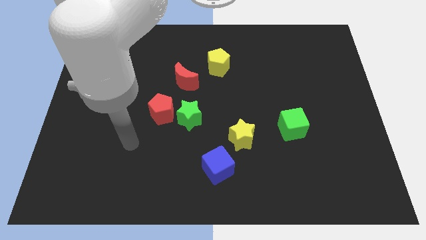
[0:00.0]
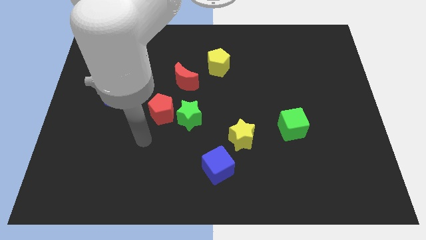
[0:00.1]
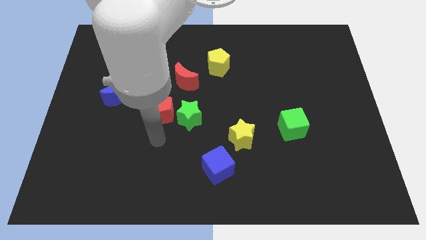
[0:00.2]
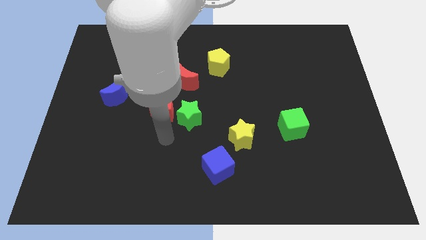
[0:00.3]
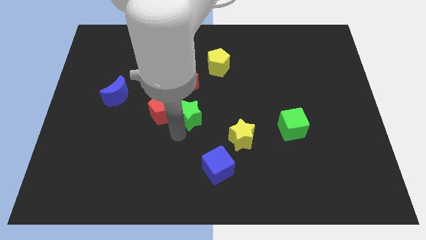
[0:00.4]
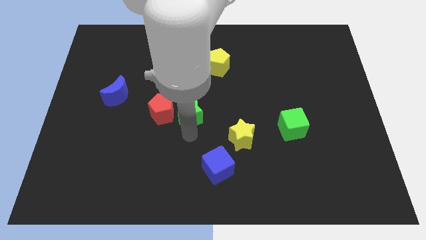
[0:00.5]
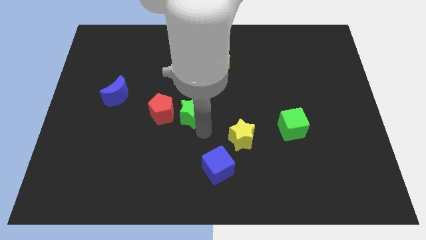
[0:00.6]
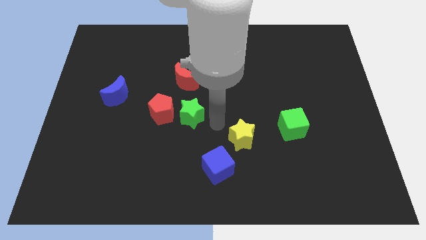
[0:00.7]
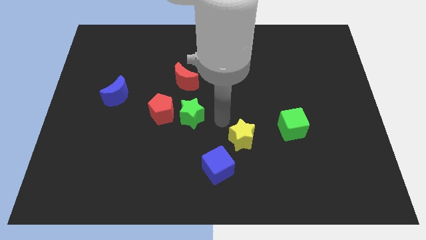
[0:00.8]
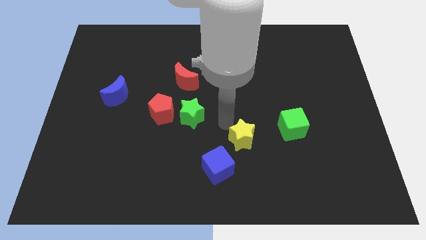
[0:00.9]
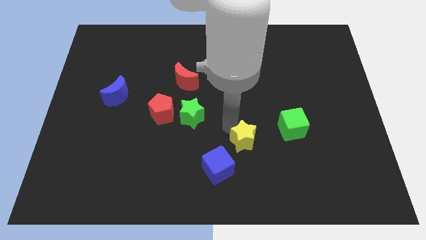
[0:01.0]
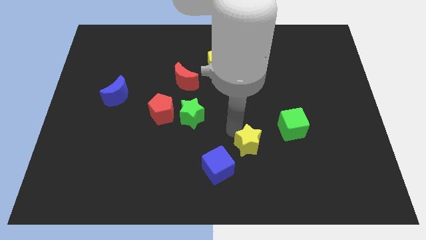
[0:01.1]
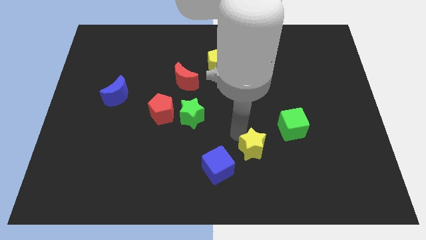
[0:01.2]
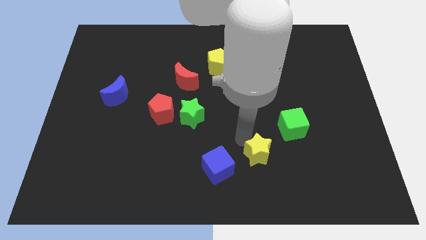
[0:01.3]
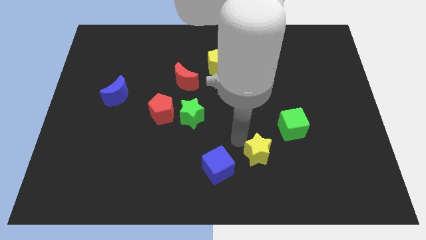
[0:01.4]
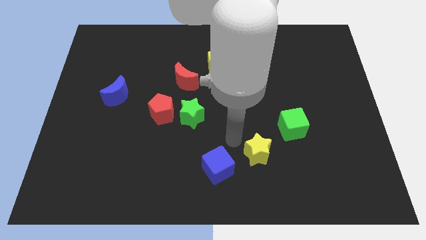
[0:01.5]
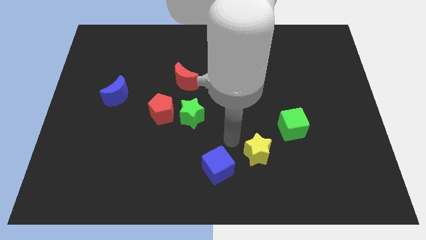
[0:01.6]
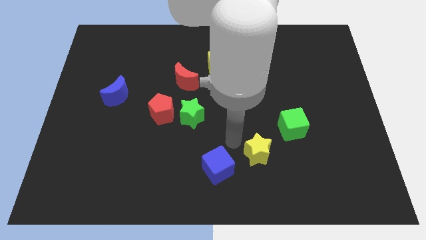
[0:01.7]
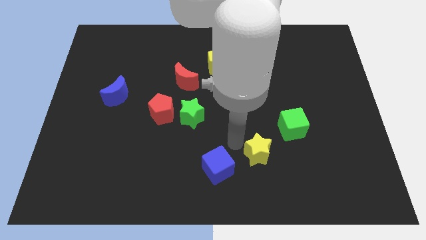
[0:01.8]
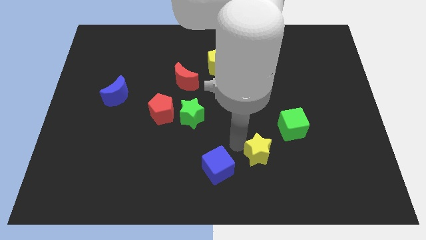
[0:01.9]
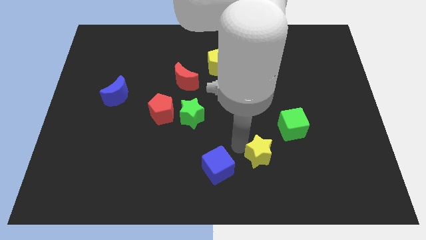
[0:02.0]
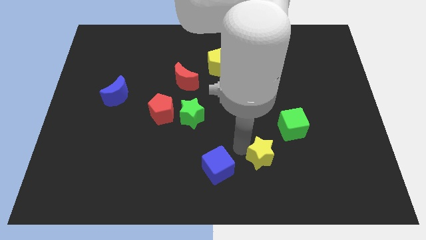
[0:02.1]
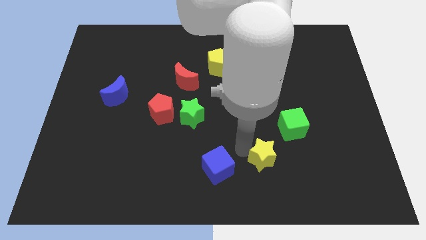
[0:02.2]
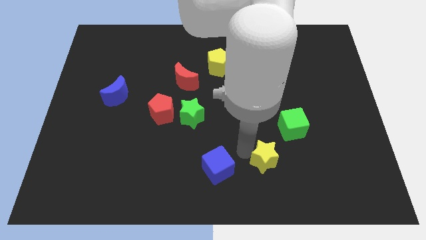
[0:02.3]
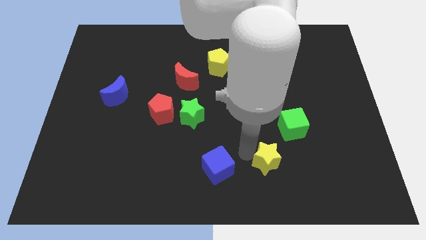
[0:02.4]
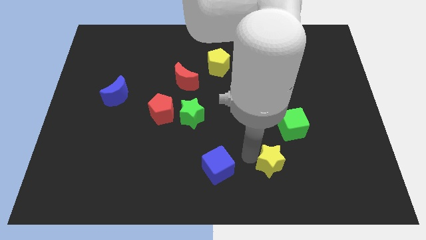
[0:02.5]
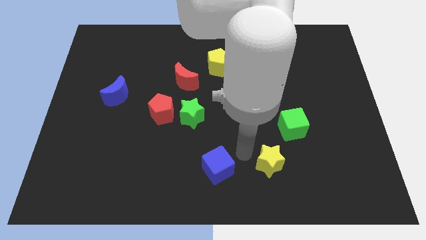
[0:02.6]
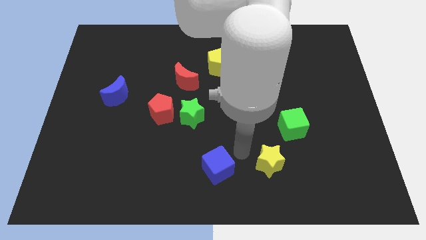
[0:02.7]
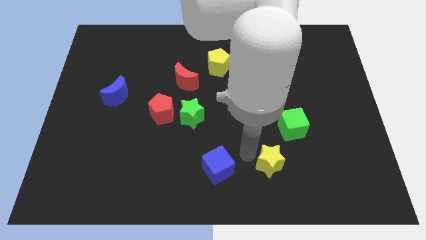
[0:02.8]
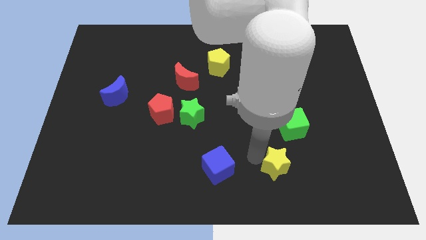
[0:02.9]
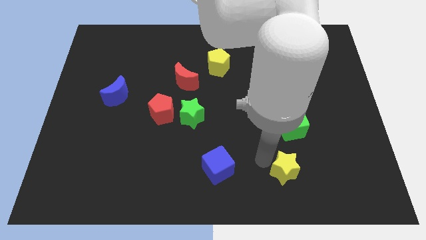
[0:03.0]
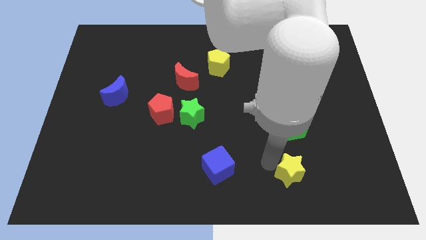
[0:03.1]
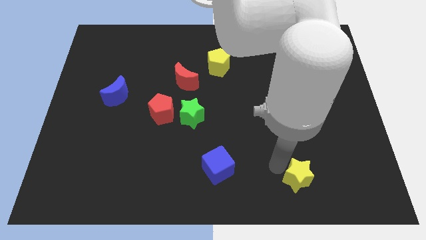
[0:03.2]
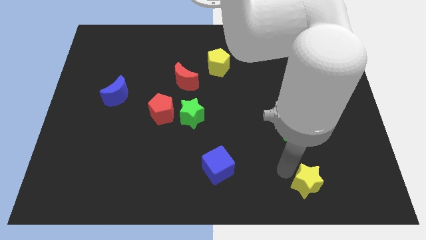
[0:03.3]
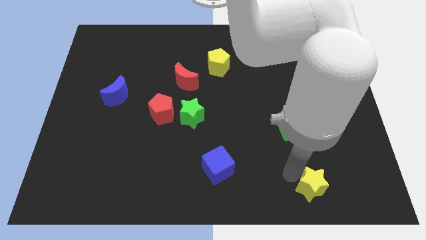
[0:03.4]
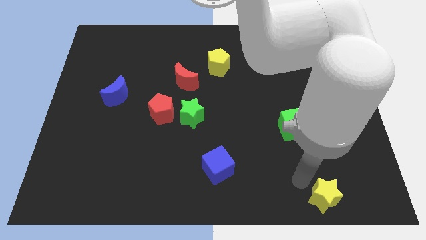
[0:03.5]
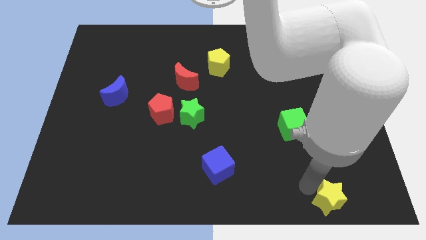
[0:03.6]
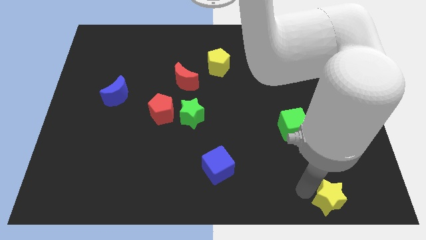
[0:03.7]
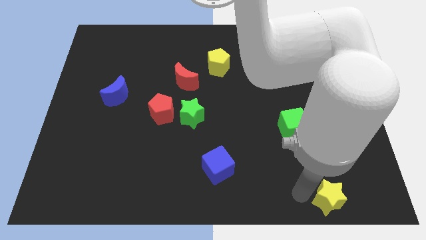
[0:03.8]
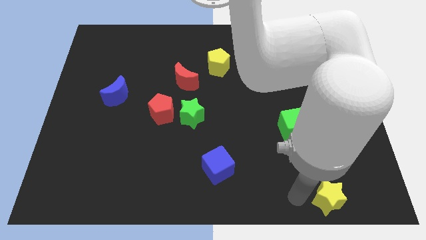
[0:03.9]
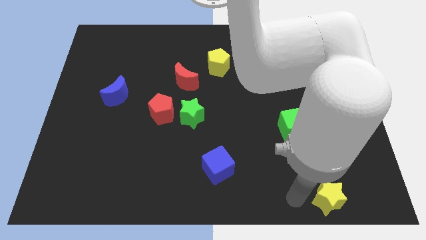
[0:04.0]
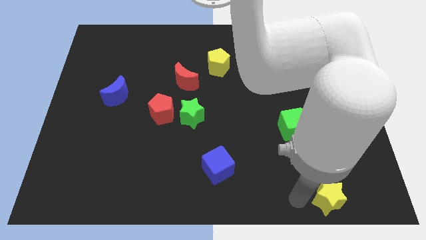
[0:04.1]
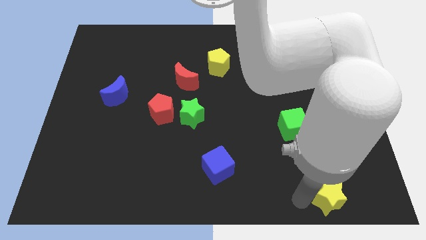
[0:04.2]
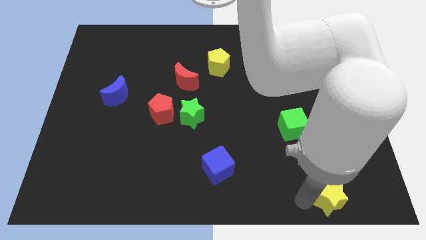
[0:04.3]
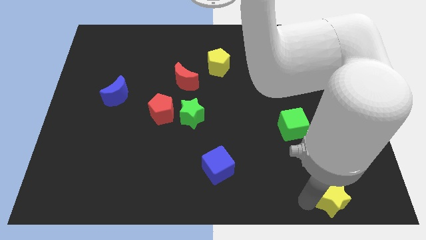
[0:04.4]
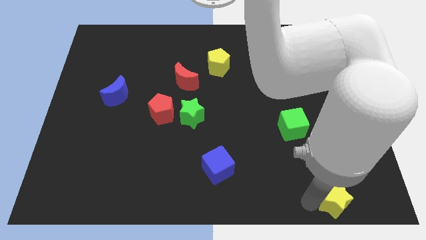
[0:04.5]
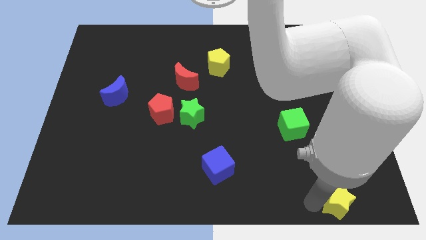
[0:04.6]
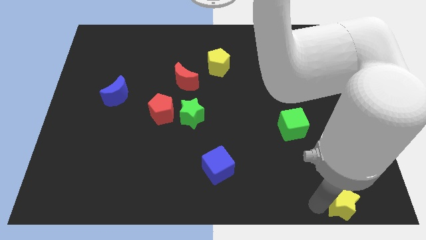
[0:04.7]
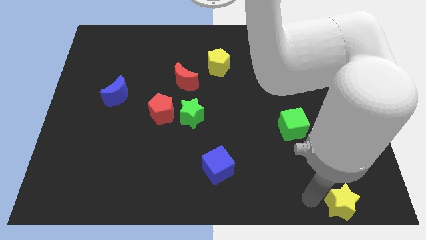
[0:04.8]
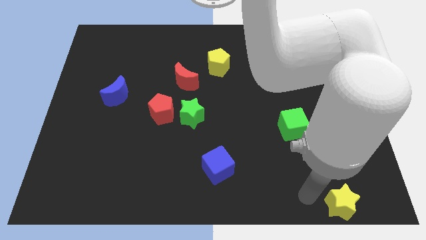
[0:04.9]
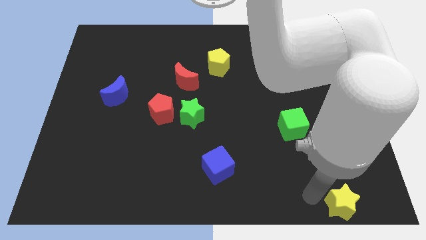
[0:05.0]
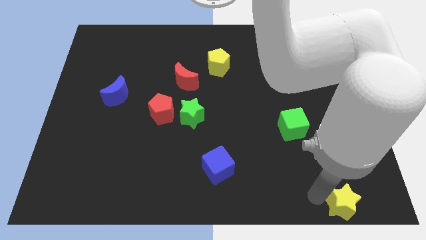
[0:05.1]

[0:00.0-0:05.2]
slide the yellow star to the bottom right
